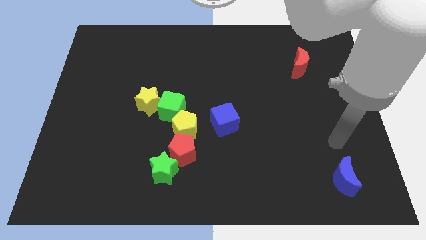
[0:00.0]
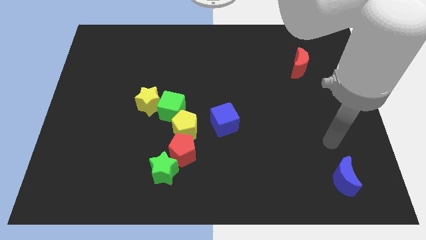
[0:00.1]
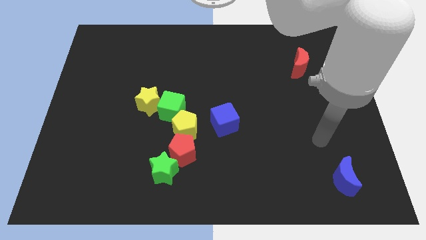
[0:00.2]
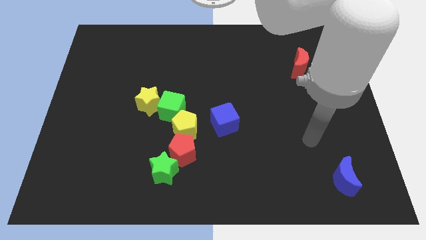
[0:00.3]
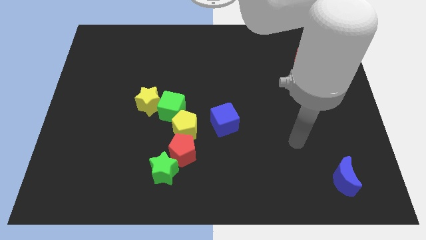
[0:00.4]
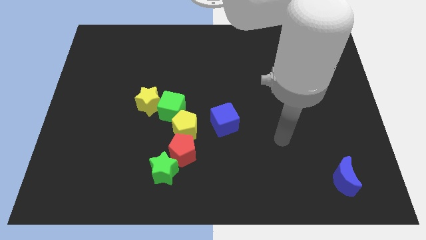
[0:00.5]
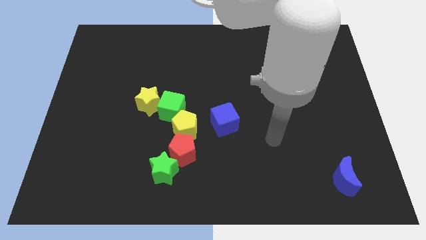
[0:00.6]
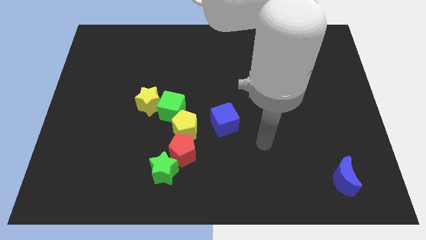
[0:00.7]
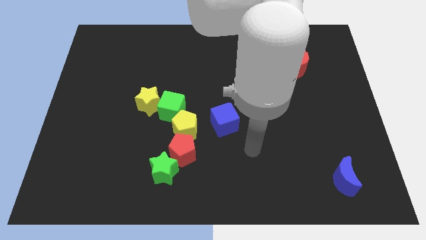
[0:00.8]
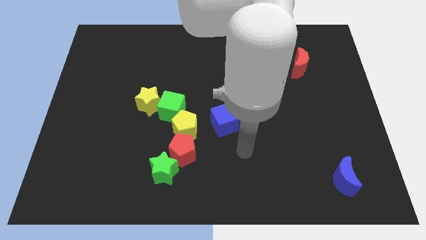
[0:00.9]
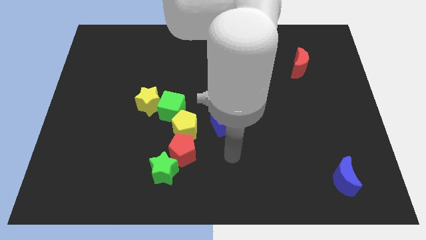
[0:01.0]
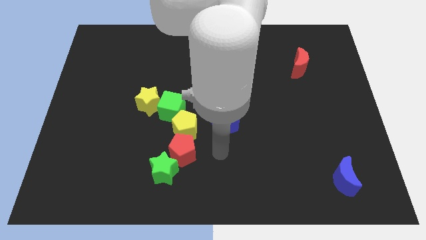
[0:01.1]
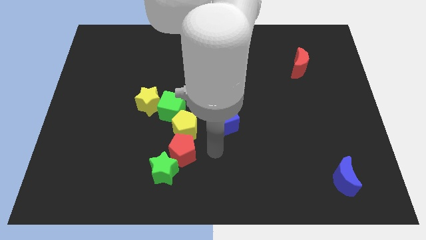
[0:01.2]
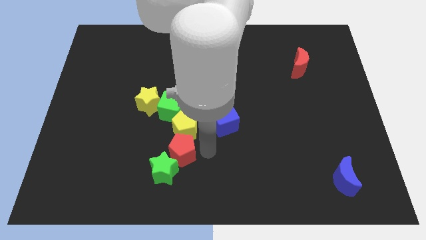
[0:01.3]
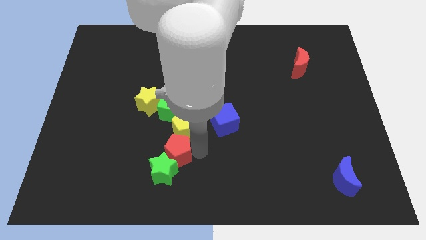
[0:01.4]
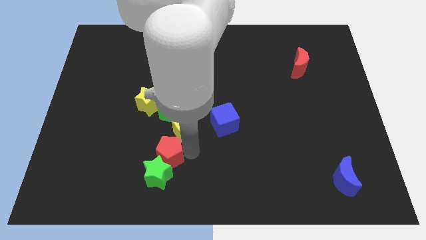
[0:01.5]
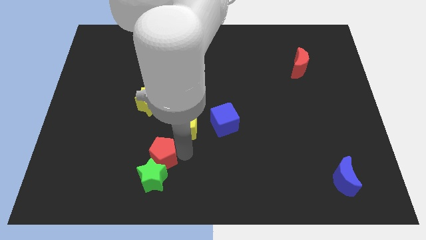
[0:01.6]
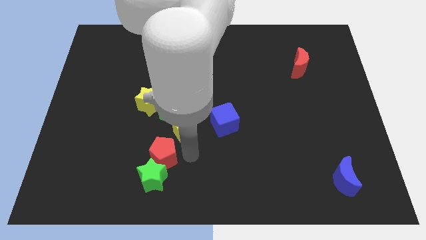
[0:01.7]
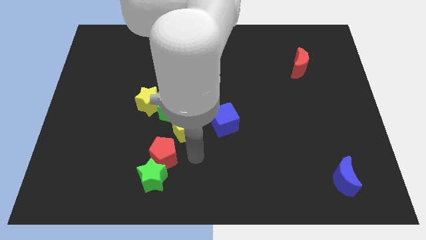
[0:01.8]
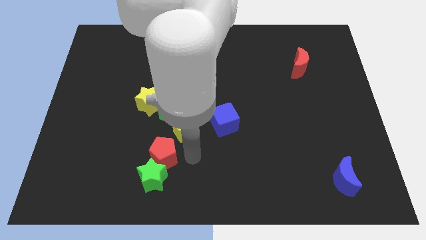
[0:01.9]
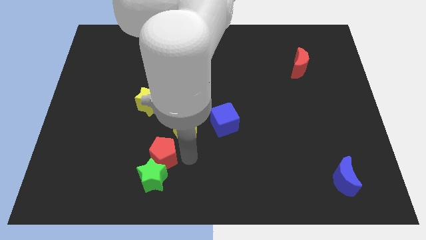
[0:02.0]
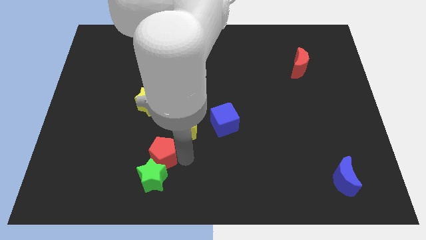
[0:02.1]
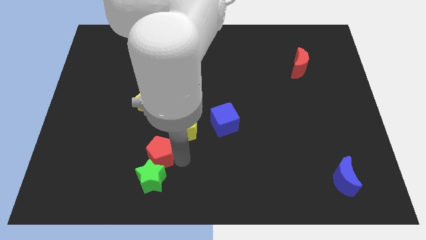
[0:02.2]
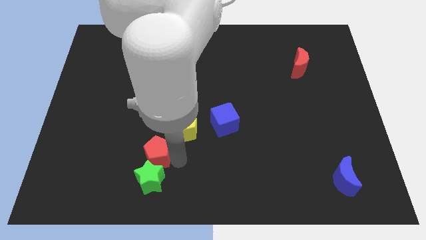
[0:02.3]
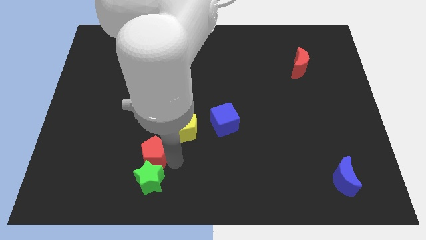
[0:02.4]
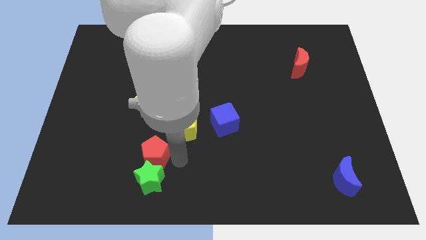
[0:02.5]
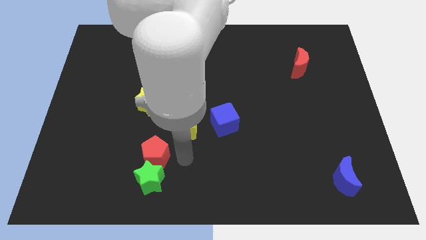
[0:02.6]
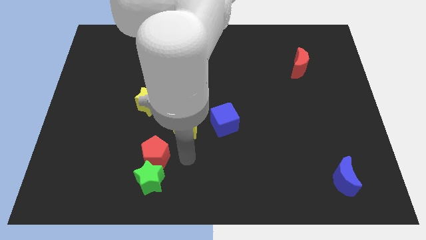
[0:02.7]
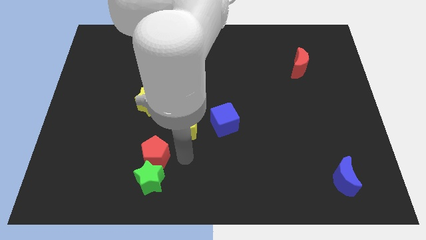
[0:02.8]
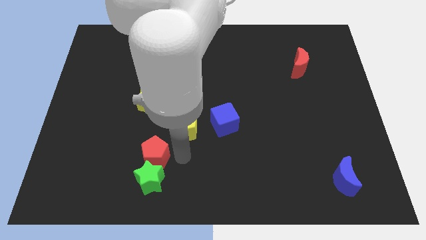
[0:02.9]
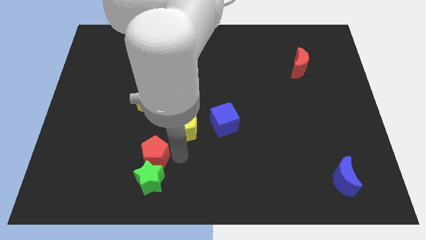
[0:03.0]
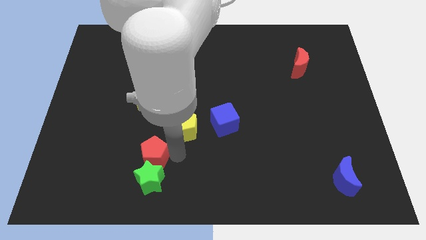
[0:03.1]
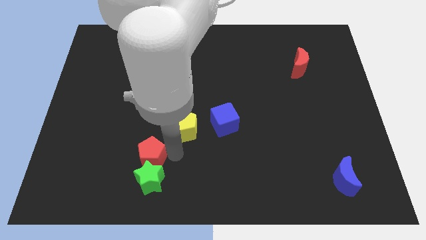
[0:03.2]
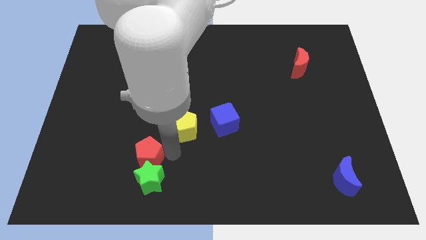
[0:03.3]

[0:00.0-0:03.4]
slide the red pentagon to the left slightly

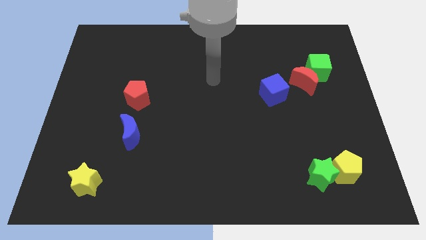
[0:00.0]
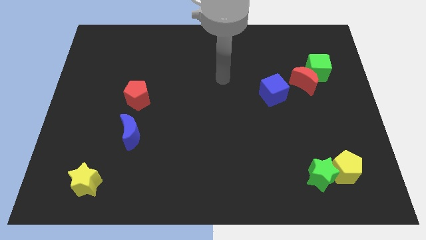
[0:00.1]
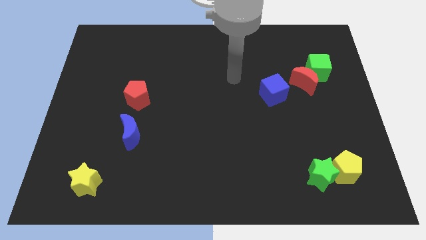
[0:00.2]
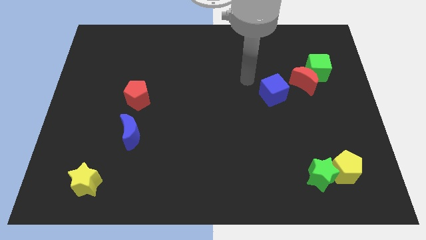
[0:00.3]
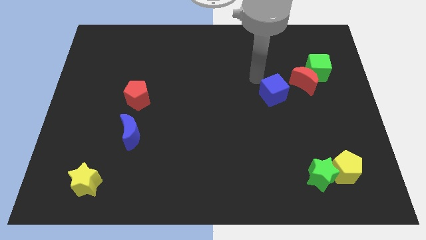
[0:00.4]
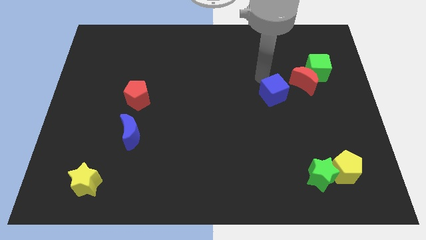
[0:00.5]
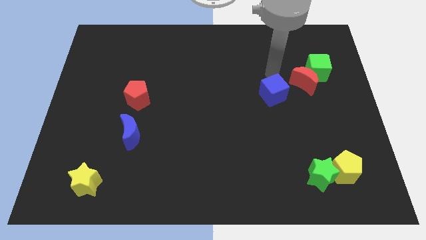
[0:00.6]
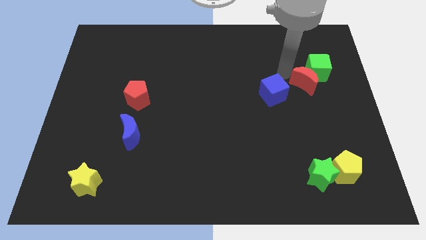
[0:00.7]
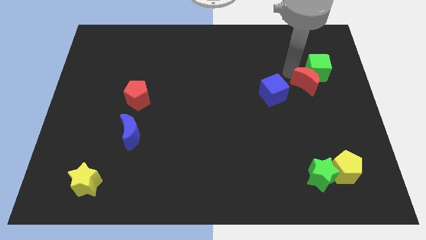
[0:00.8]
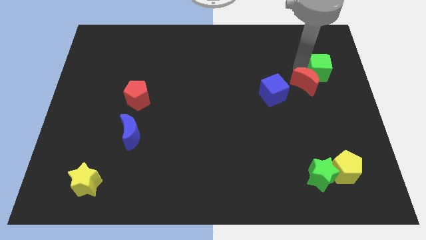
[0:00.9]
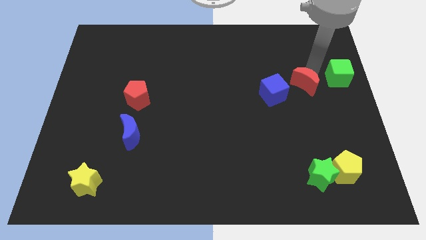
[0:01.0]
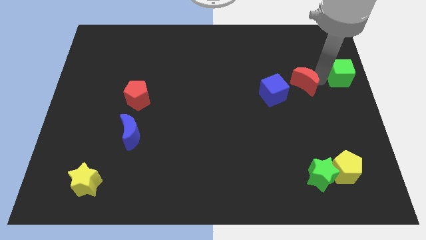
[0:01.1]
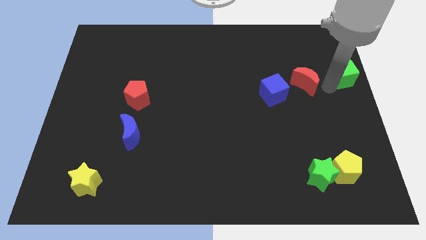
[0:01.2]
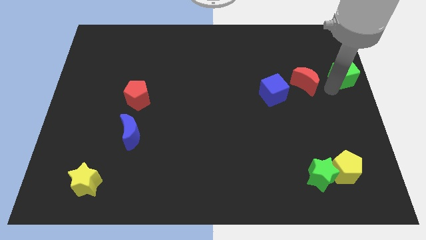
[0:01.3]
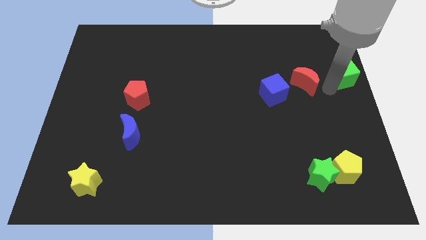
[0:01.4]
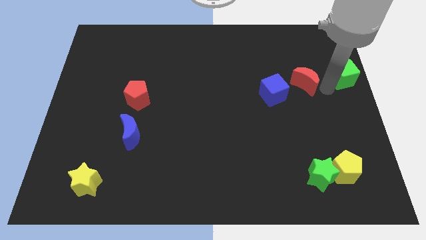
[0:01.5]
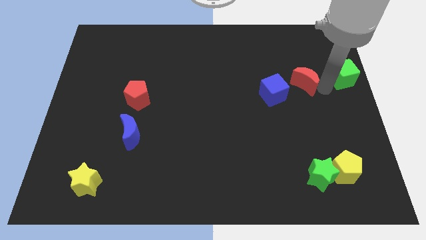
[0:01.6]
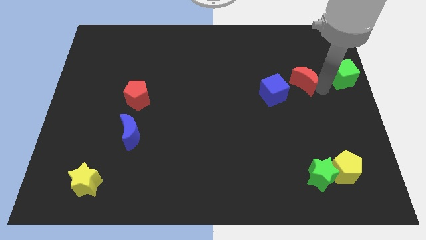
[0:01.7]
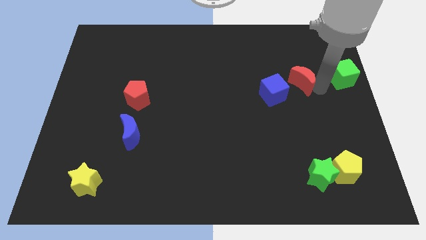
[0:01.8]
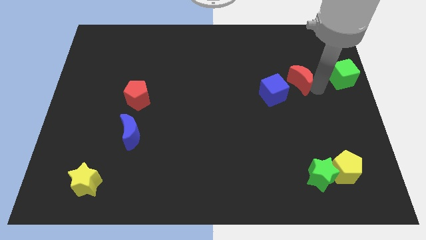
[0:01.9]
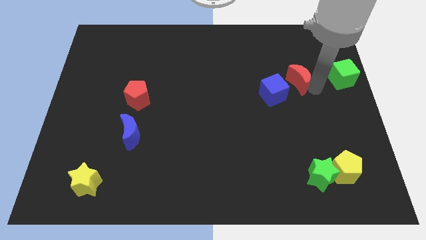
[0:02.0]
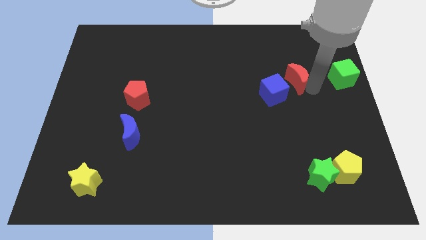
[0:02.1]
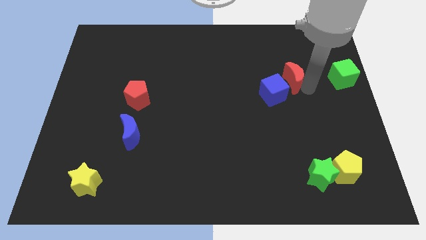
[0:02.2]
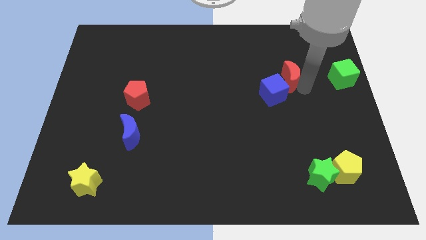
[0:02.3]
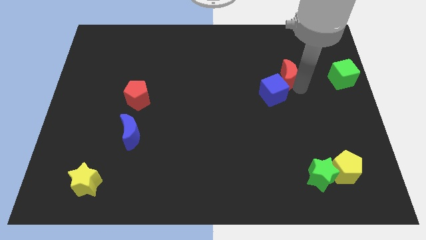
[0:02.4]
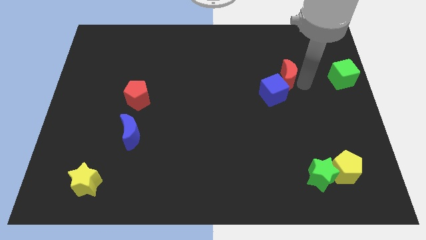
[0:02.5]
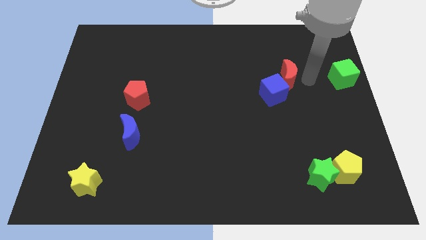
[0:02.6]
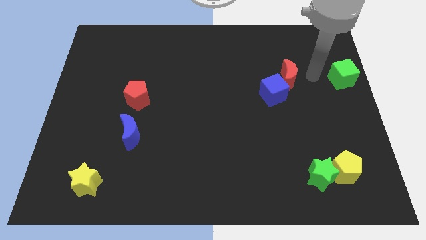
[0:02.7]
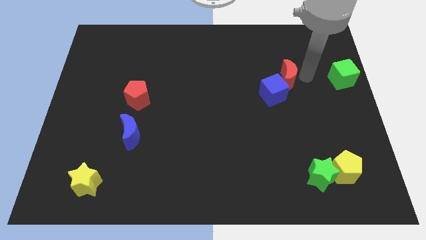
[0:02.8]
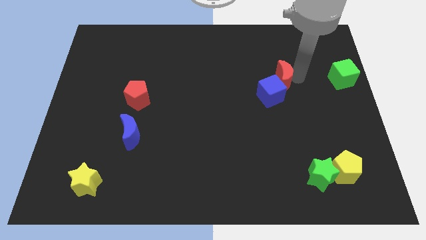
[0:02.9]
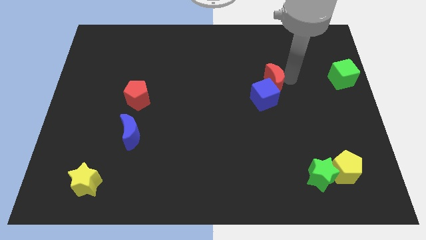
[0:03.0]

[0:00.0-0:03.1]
push the red moon a bit left

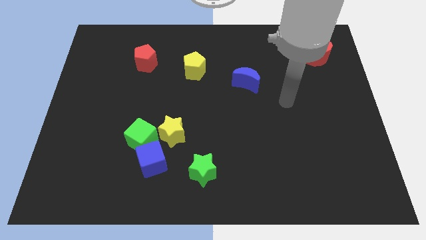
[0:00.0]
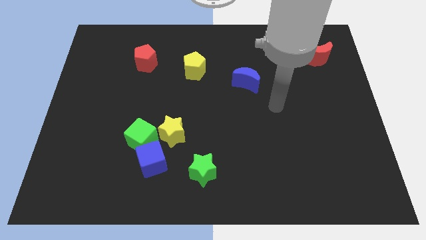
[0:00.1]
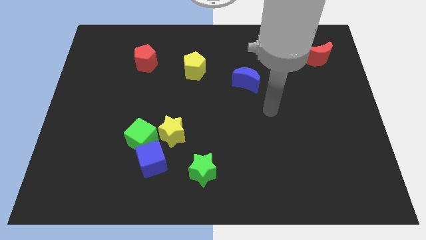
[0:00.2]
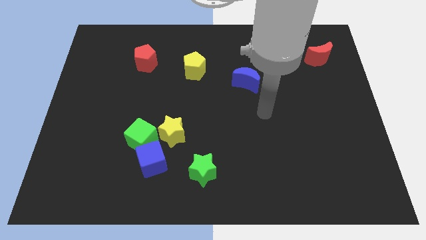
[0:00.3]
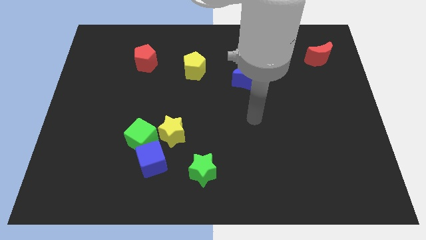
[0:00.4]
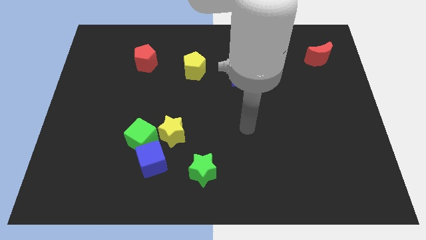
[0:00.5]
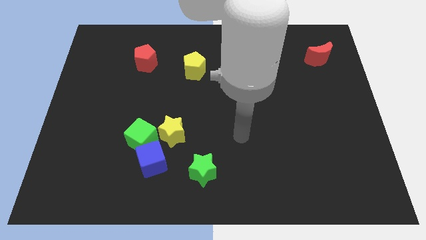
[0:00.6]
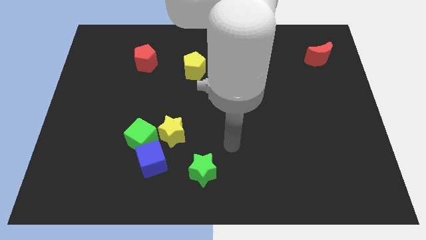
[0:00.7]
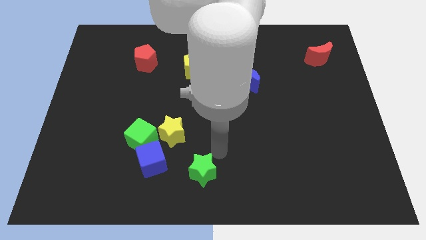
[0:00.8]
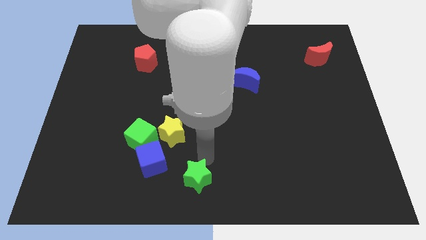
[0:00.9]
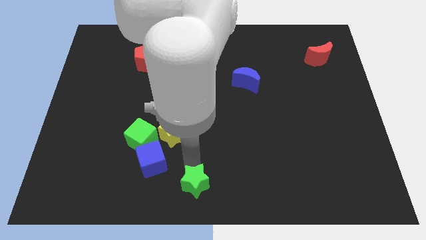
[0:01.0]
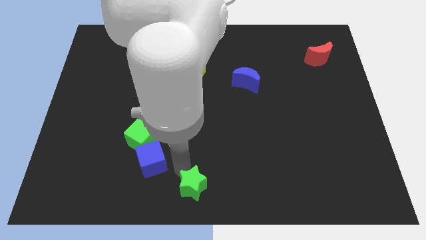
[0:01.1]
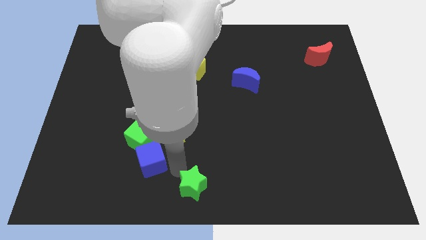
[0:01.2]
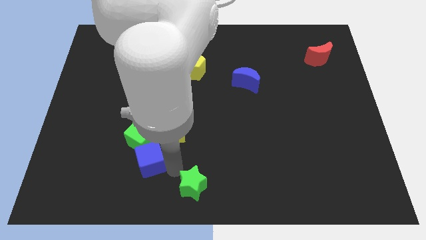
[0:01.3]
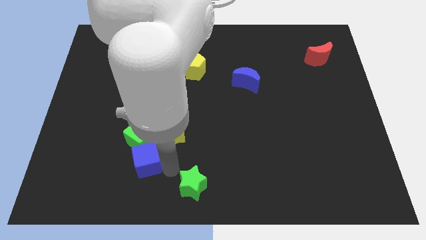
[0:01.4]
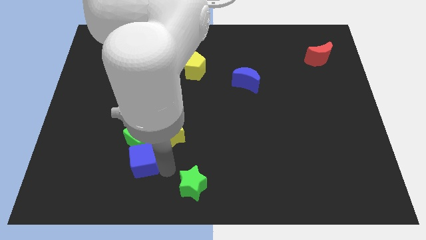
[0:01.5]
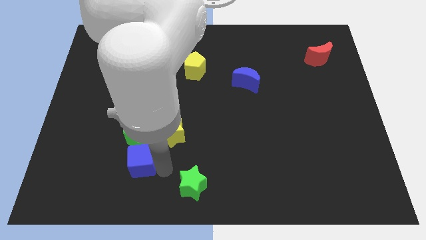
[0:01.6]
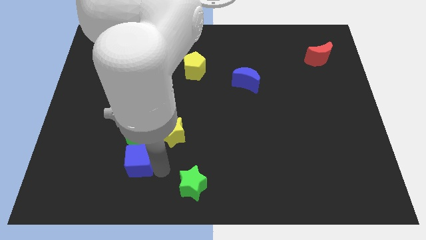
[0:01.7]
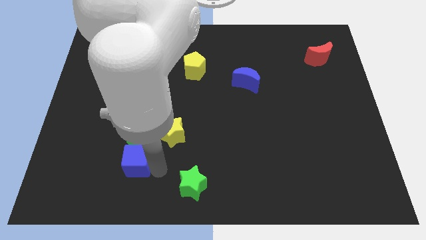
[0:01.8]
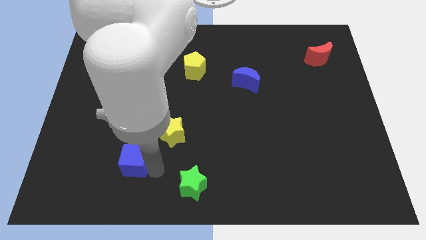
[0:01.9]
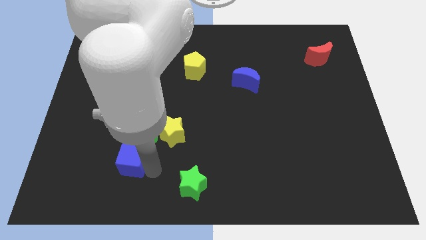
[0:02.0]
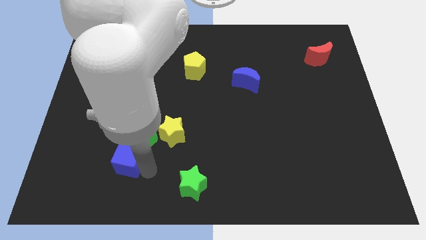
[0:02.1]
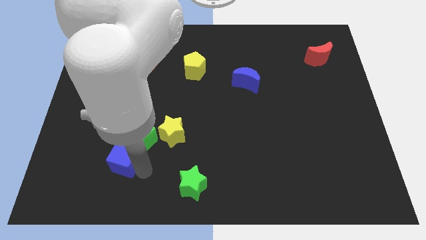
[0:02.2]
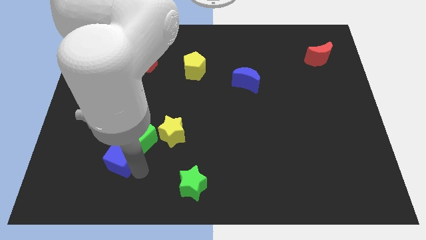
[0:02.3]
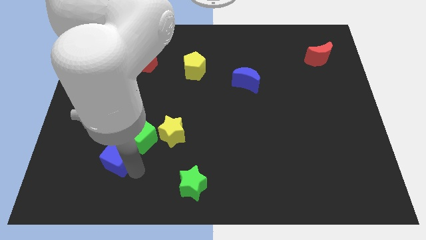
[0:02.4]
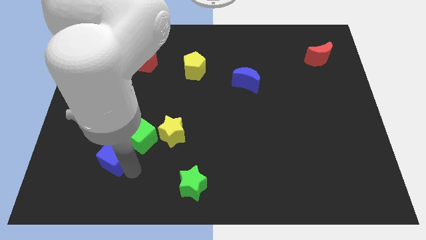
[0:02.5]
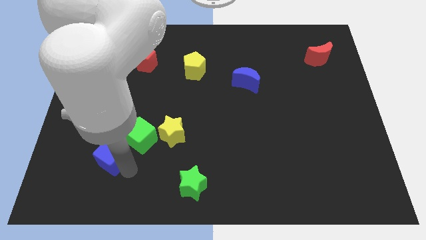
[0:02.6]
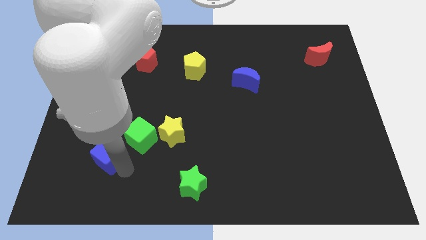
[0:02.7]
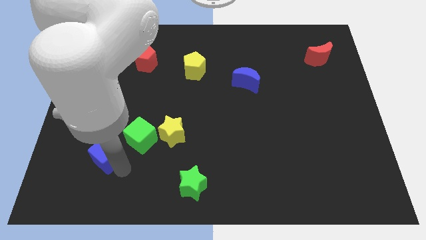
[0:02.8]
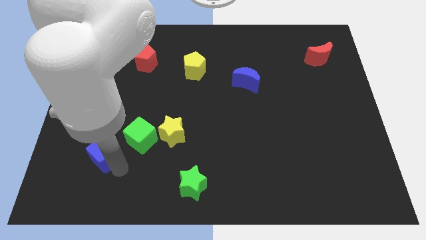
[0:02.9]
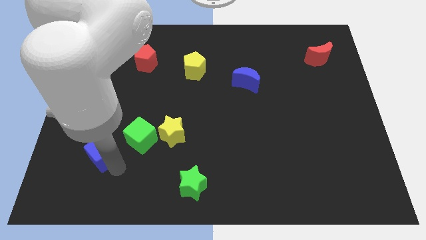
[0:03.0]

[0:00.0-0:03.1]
slightly push the blue cube up and left
